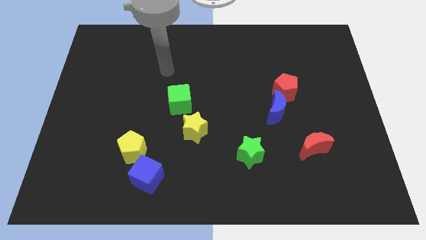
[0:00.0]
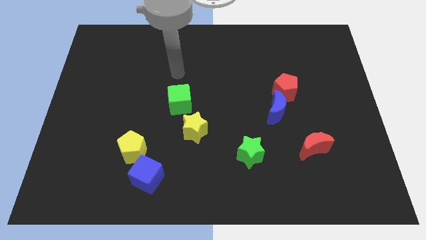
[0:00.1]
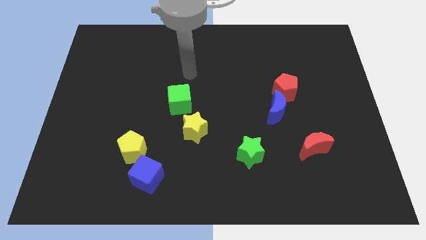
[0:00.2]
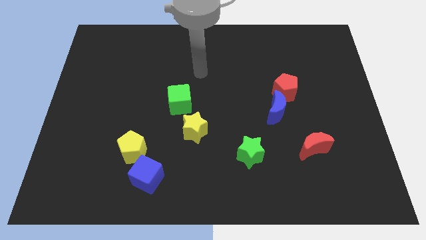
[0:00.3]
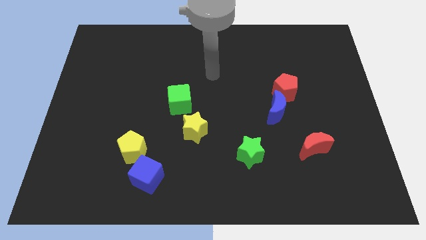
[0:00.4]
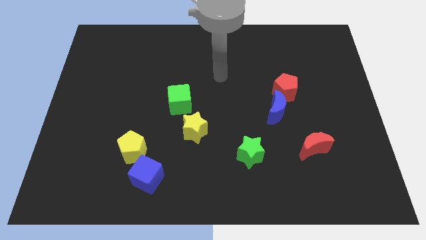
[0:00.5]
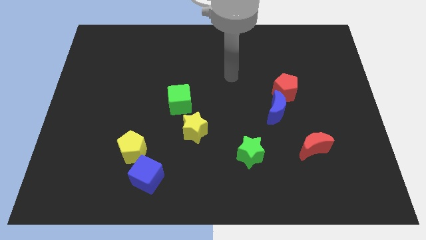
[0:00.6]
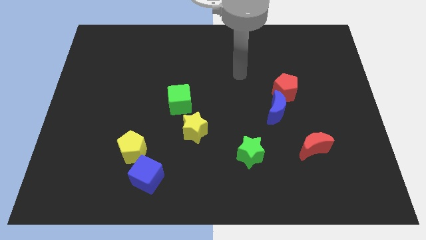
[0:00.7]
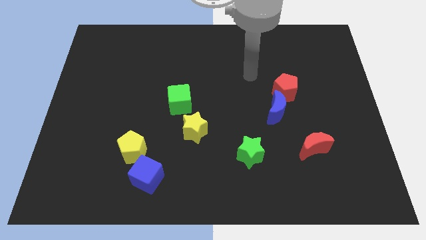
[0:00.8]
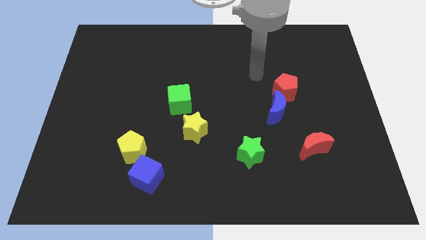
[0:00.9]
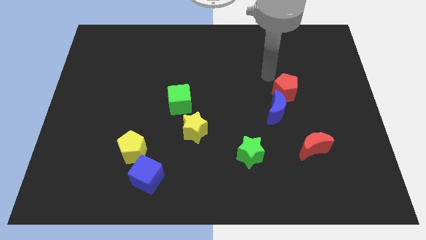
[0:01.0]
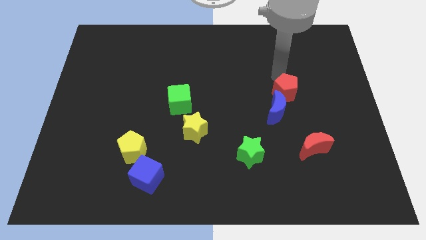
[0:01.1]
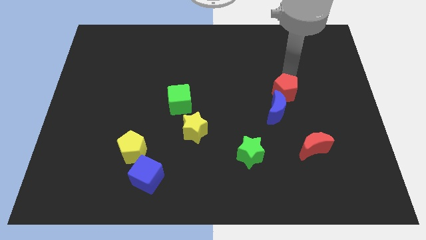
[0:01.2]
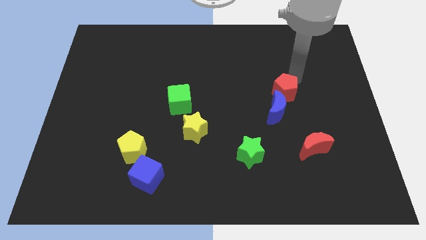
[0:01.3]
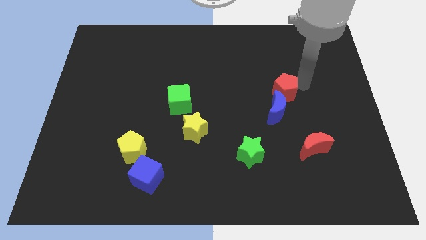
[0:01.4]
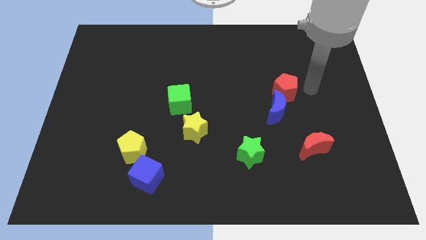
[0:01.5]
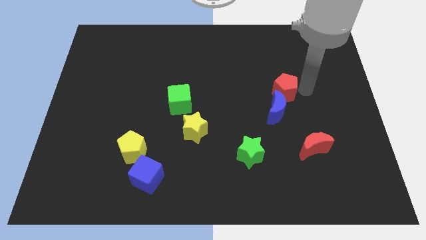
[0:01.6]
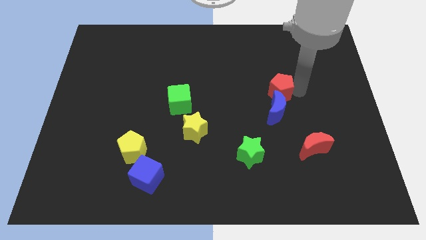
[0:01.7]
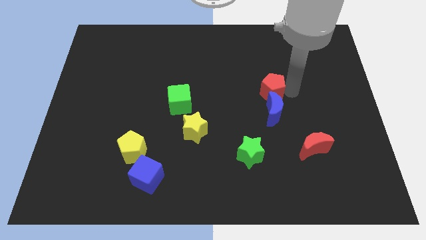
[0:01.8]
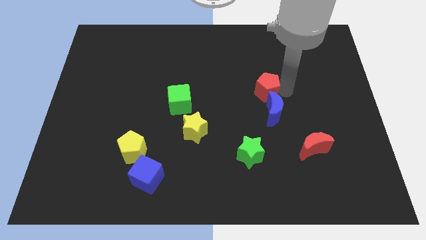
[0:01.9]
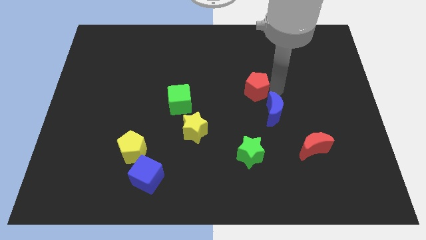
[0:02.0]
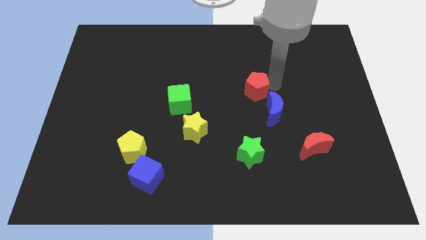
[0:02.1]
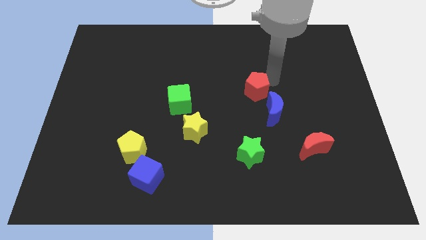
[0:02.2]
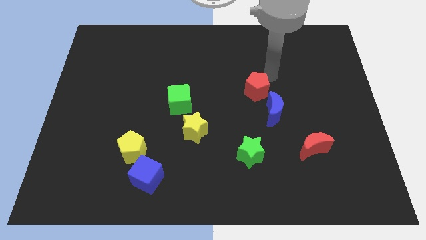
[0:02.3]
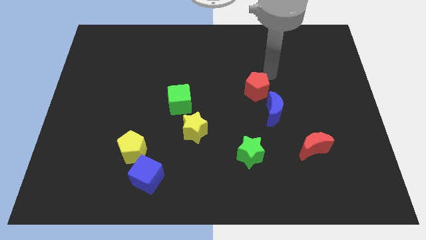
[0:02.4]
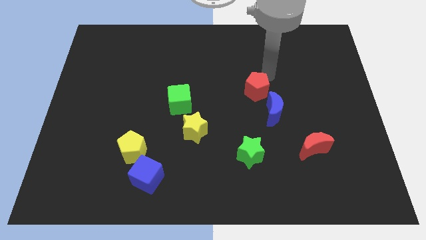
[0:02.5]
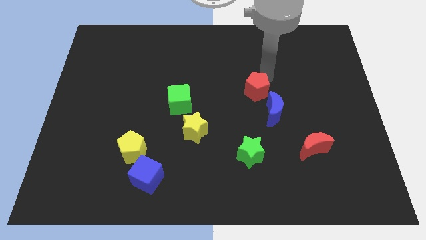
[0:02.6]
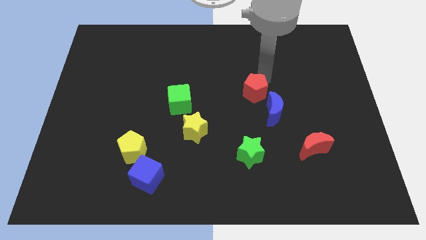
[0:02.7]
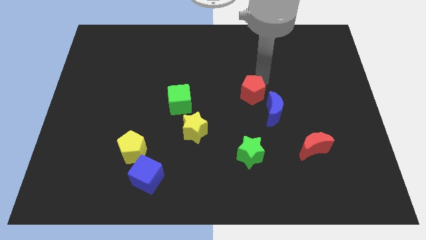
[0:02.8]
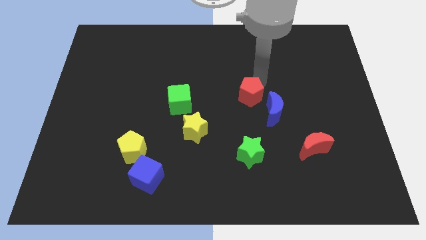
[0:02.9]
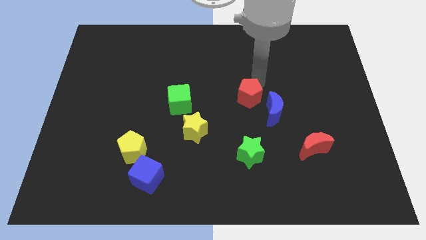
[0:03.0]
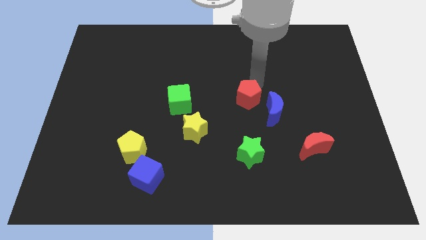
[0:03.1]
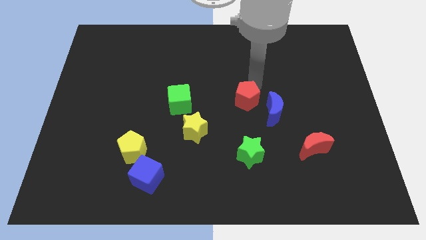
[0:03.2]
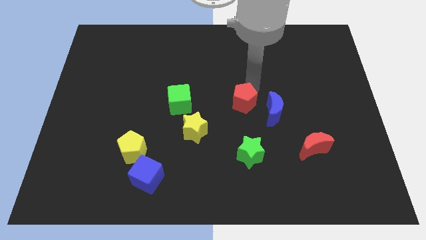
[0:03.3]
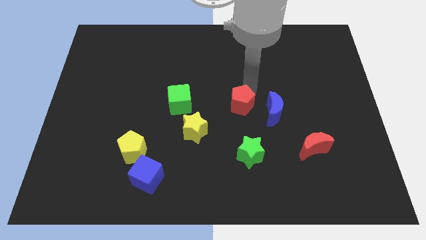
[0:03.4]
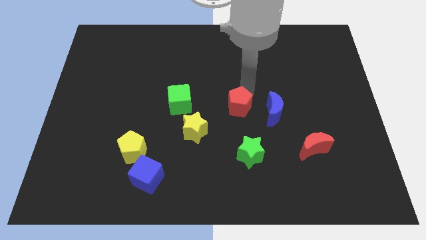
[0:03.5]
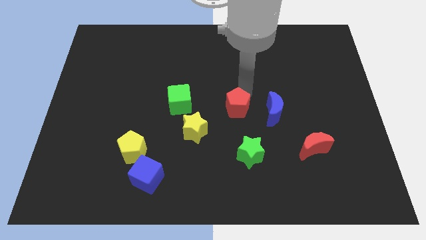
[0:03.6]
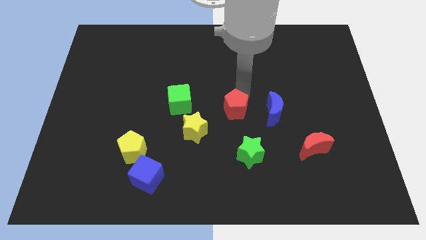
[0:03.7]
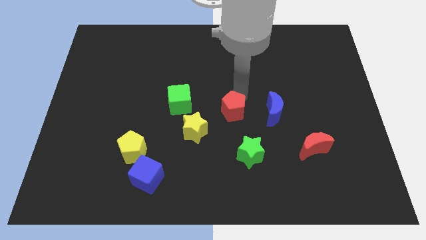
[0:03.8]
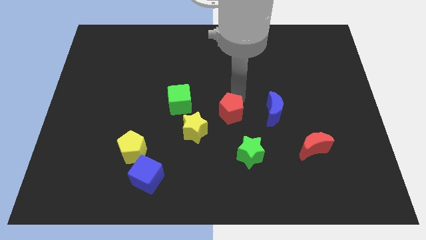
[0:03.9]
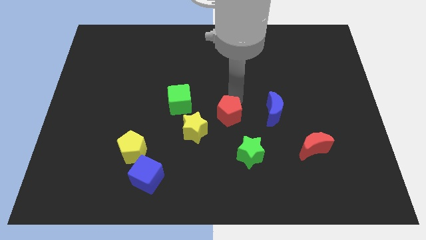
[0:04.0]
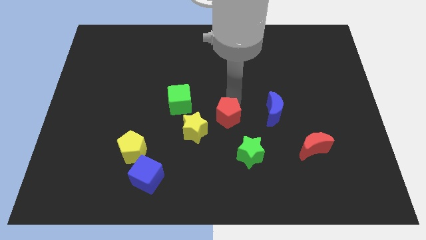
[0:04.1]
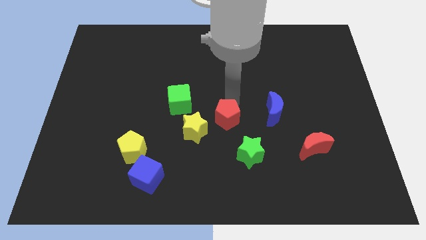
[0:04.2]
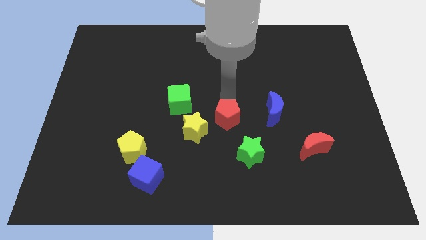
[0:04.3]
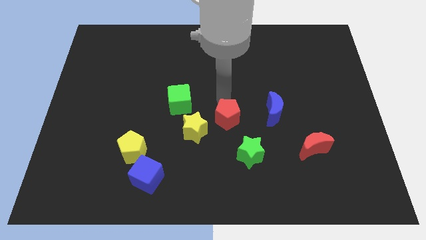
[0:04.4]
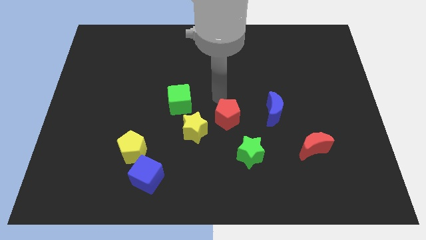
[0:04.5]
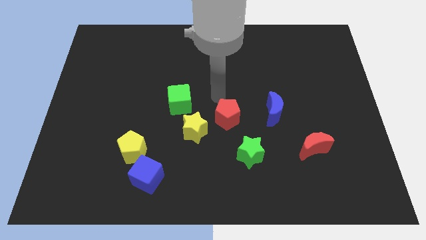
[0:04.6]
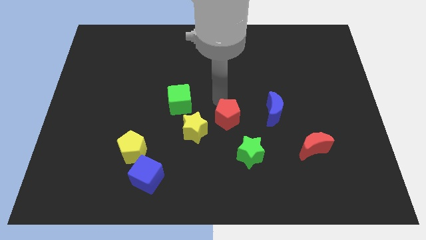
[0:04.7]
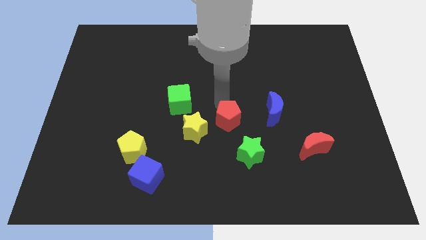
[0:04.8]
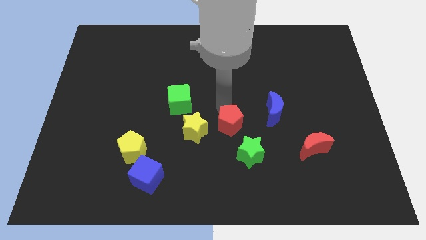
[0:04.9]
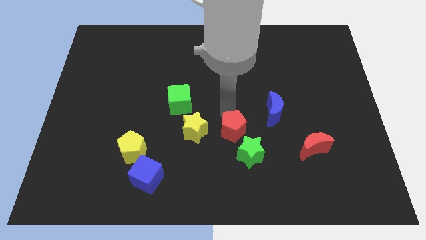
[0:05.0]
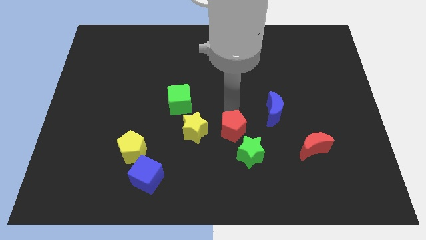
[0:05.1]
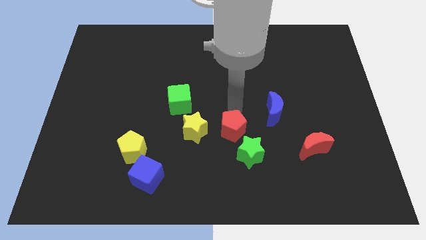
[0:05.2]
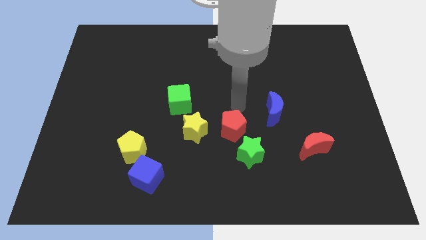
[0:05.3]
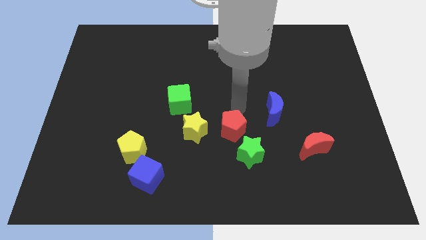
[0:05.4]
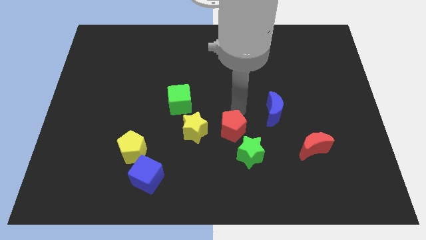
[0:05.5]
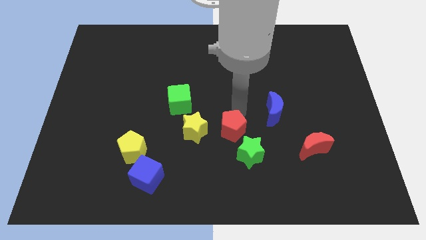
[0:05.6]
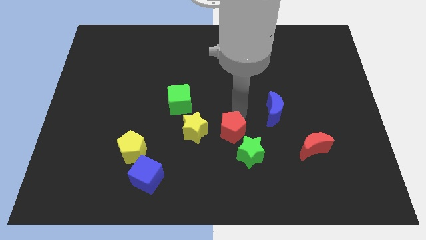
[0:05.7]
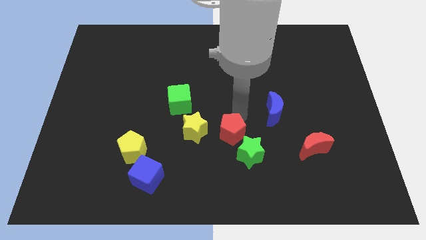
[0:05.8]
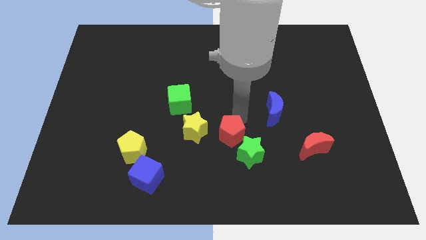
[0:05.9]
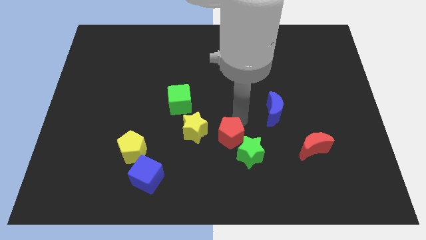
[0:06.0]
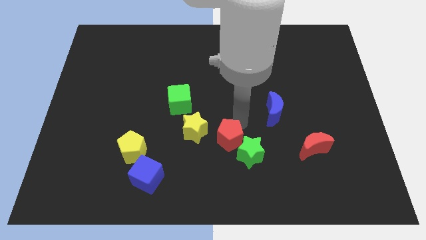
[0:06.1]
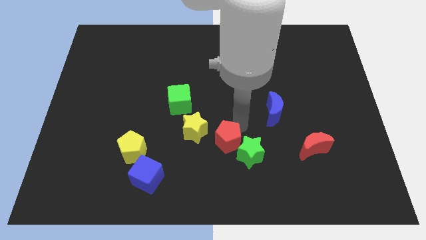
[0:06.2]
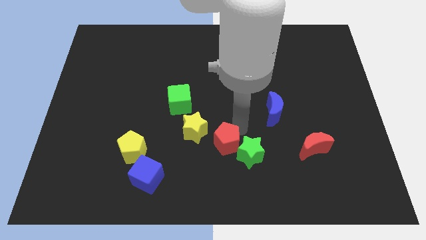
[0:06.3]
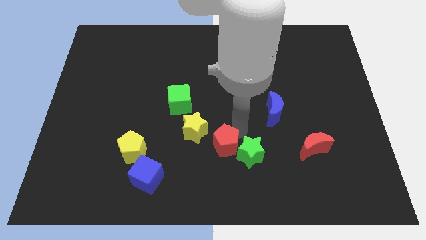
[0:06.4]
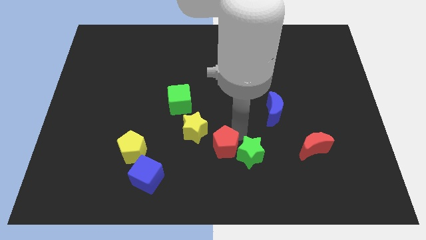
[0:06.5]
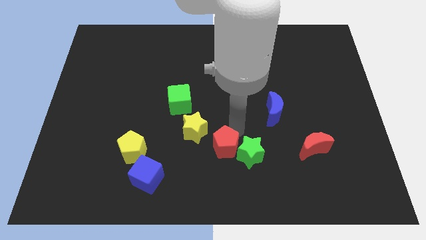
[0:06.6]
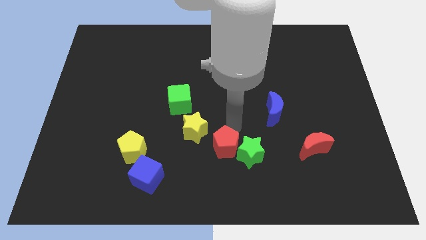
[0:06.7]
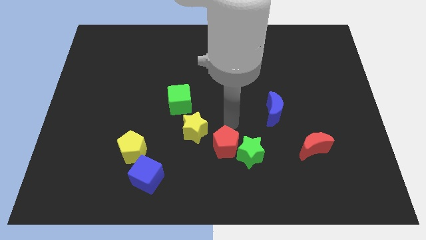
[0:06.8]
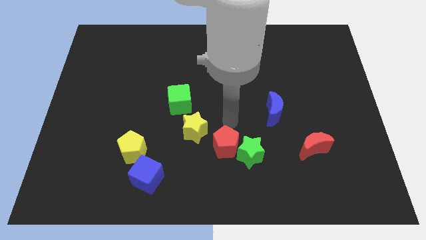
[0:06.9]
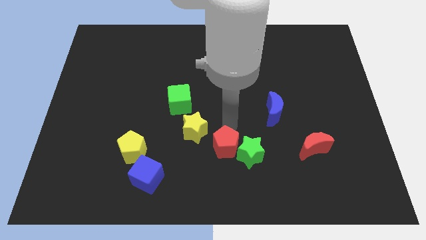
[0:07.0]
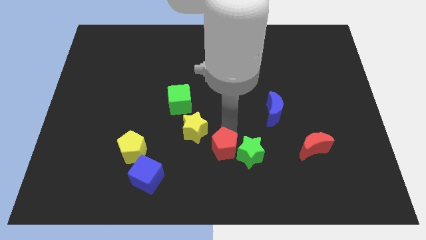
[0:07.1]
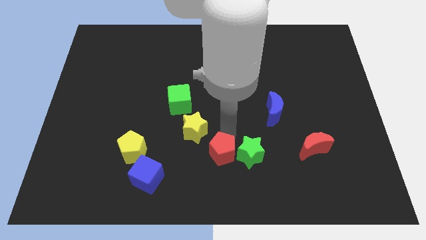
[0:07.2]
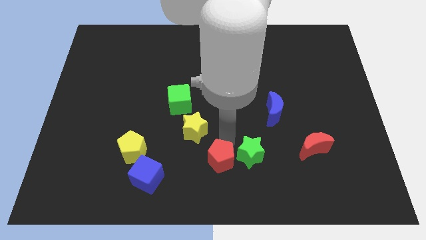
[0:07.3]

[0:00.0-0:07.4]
slide the red pentagon to the bottom side

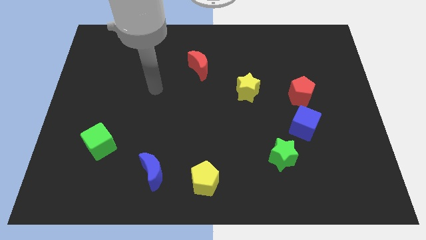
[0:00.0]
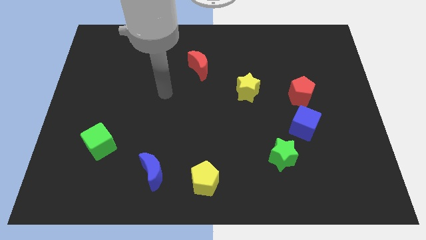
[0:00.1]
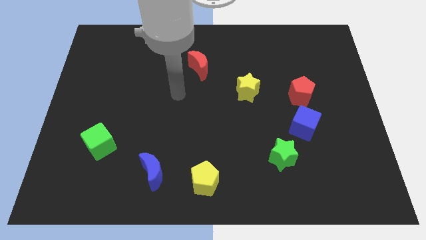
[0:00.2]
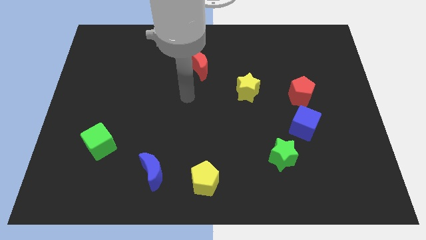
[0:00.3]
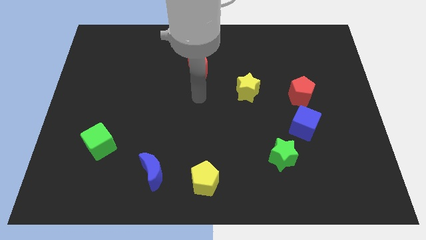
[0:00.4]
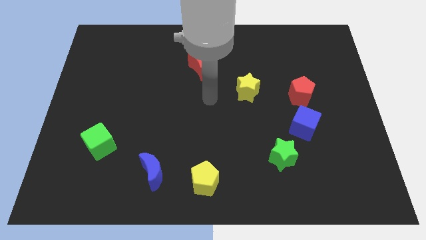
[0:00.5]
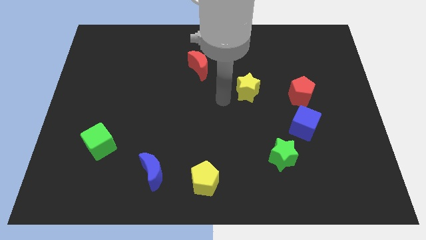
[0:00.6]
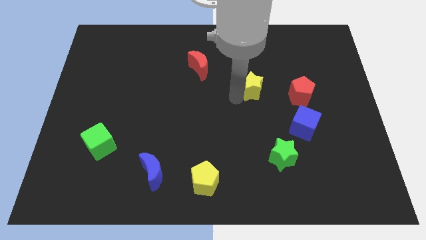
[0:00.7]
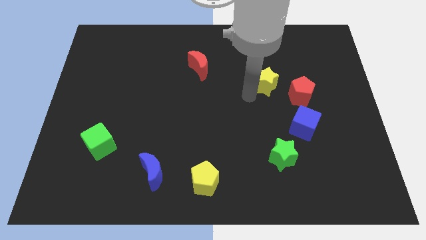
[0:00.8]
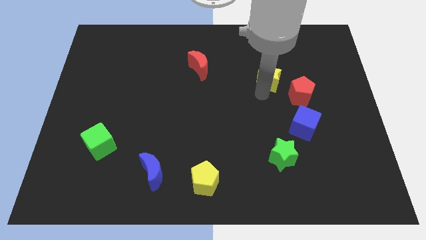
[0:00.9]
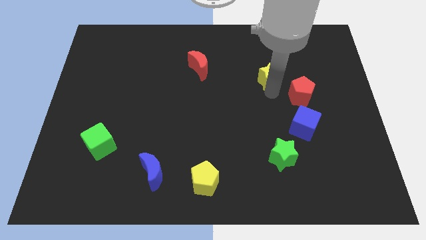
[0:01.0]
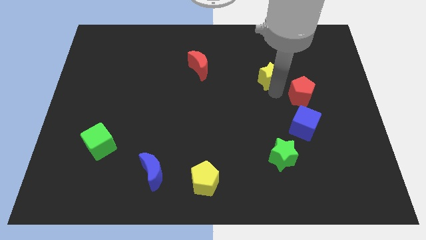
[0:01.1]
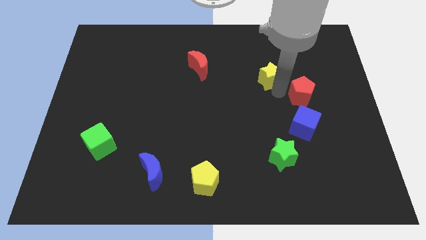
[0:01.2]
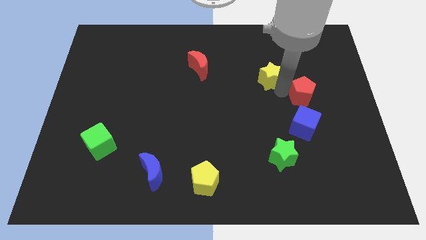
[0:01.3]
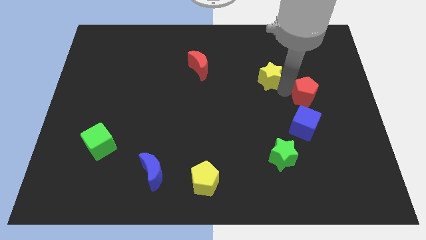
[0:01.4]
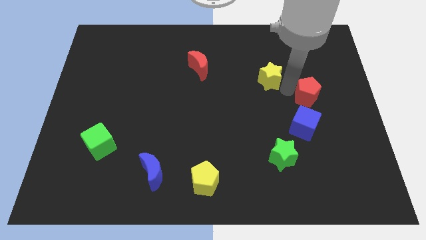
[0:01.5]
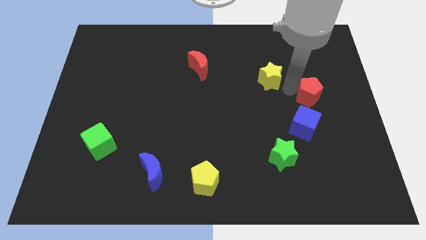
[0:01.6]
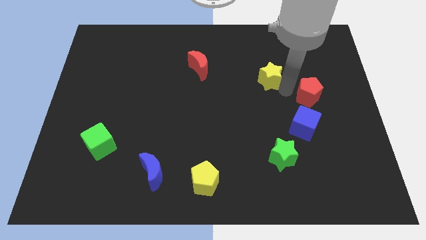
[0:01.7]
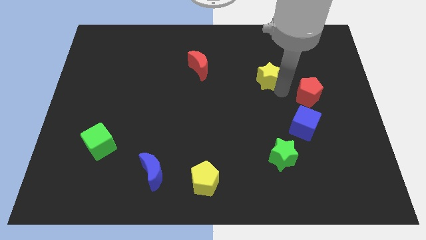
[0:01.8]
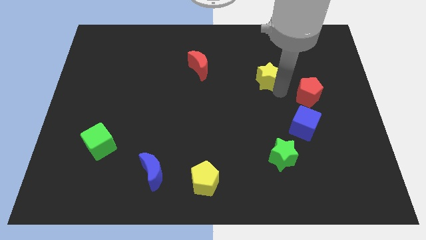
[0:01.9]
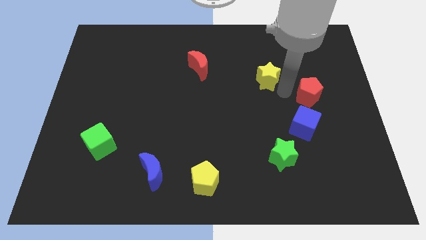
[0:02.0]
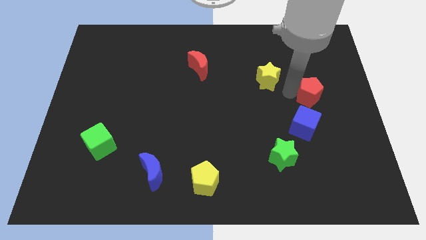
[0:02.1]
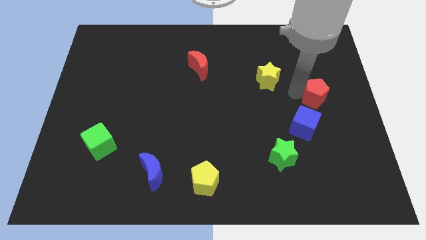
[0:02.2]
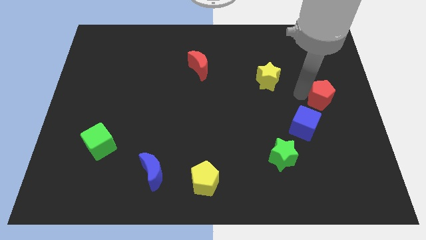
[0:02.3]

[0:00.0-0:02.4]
slide the red pentagon to the center right
